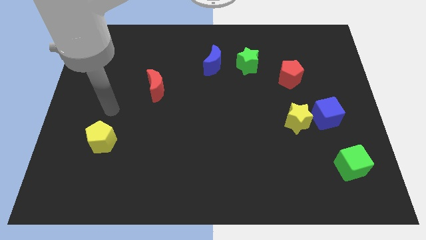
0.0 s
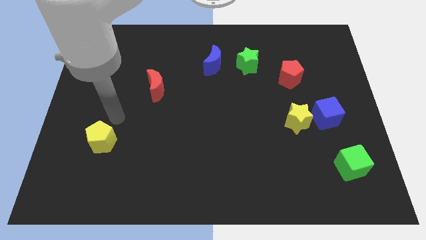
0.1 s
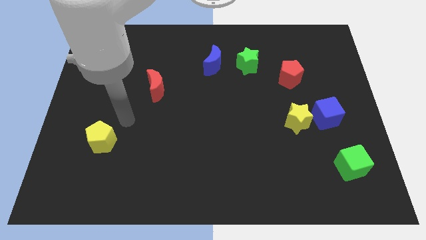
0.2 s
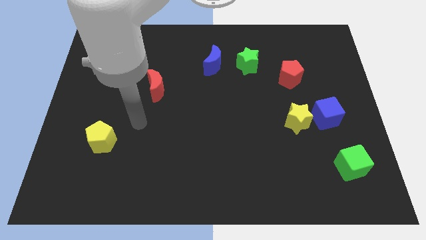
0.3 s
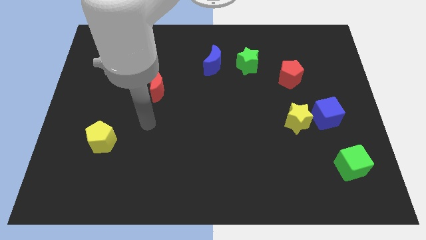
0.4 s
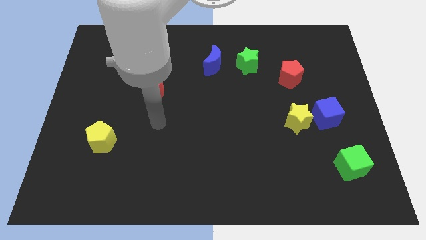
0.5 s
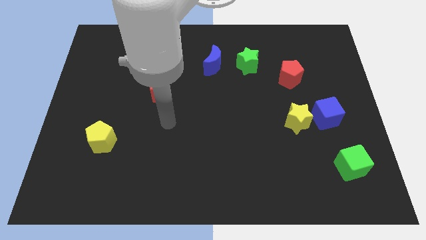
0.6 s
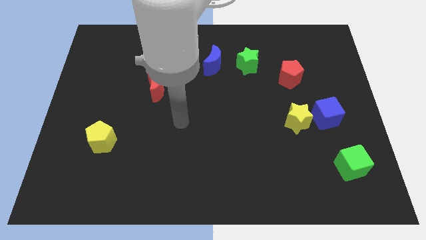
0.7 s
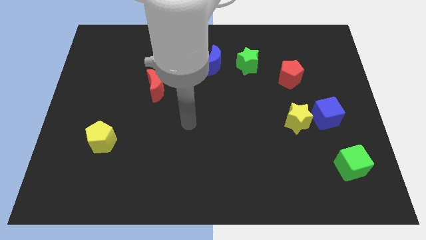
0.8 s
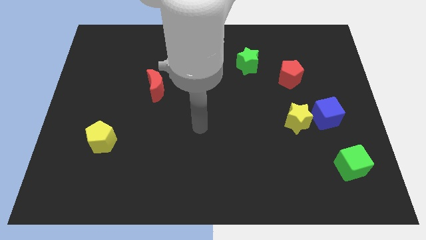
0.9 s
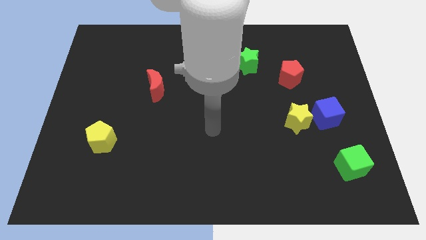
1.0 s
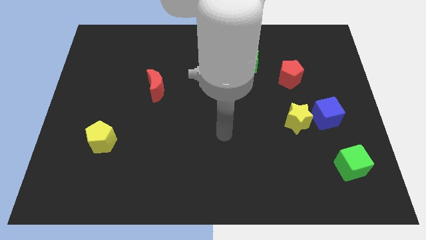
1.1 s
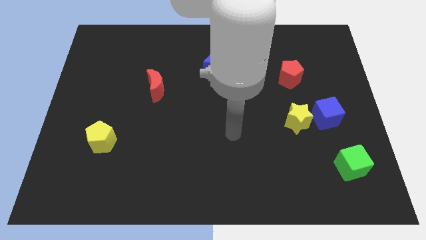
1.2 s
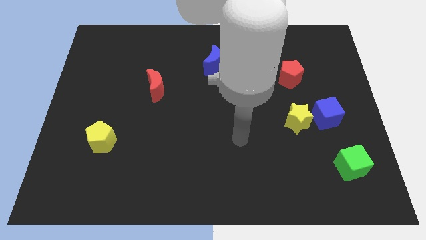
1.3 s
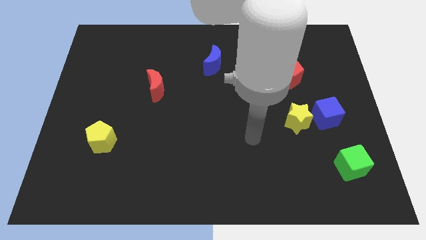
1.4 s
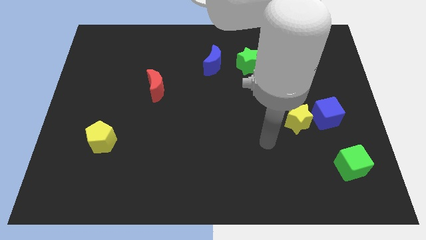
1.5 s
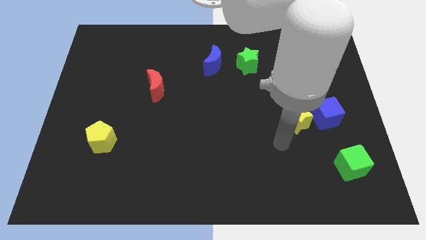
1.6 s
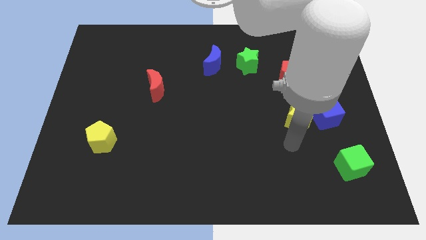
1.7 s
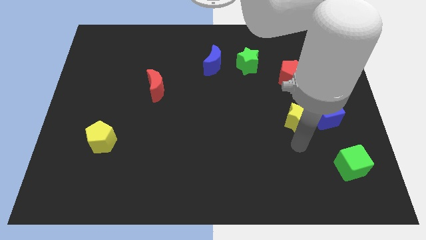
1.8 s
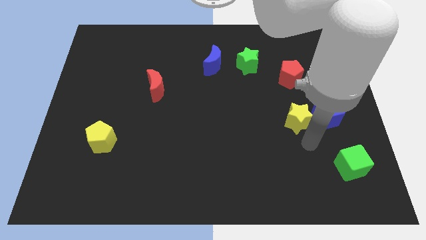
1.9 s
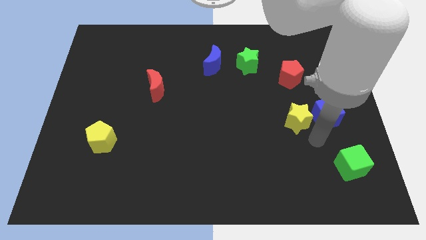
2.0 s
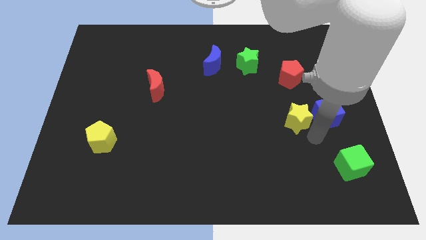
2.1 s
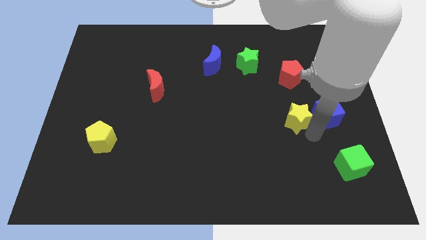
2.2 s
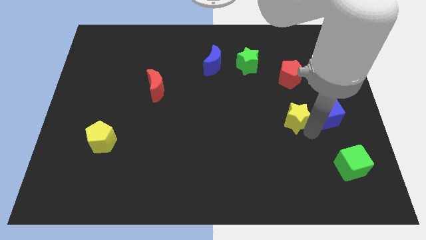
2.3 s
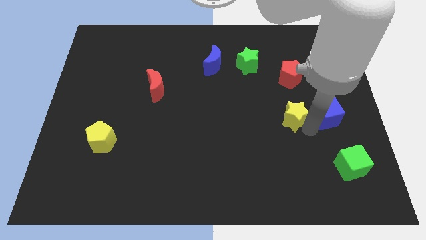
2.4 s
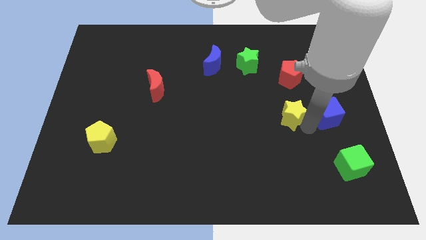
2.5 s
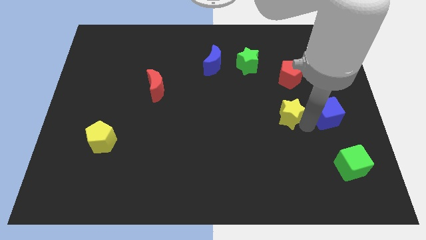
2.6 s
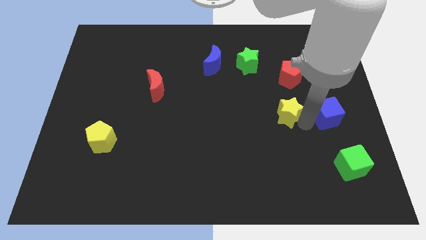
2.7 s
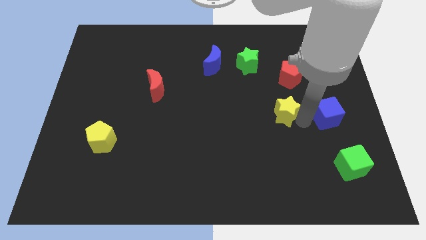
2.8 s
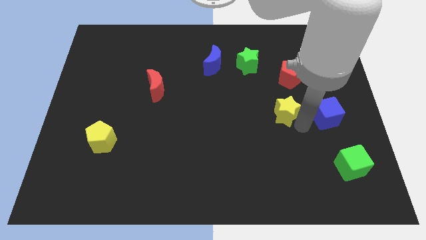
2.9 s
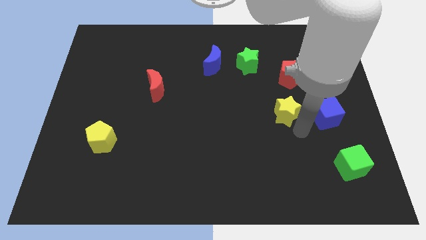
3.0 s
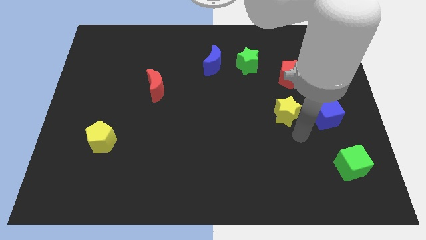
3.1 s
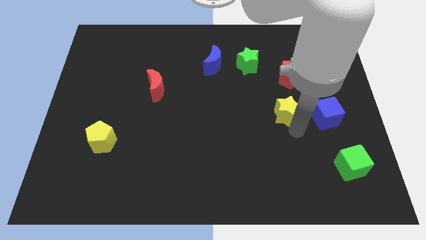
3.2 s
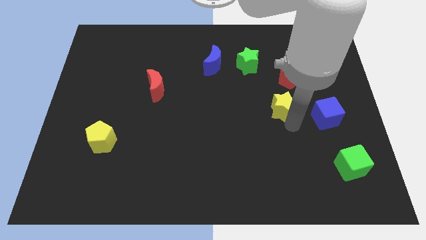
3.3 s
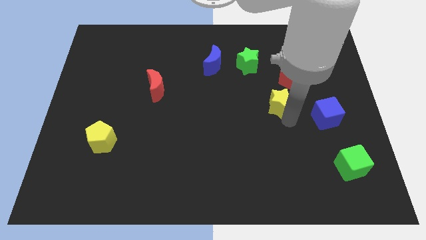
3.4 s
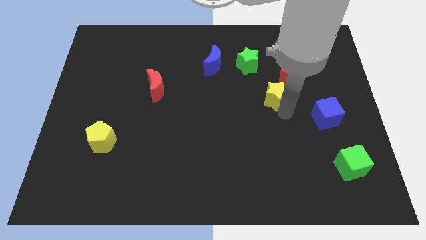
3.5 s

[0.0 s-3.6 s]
move the yellow star a little bit diagonally up and left

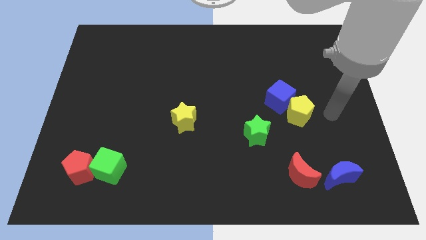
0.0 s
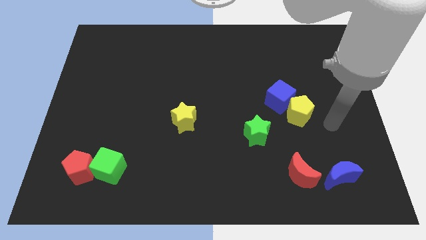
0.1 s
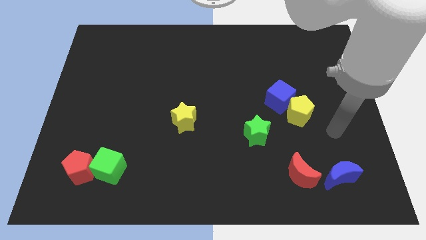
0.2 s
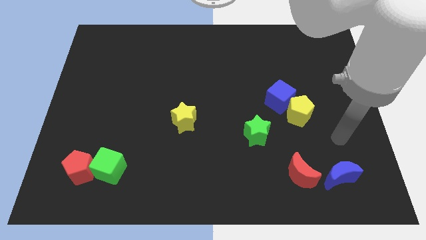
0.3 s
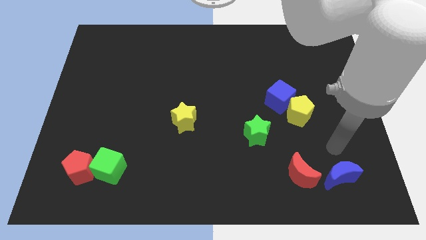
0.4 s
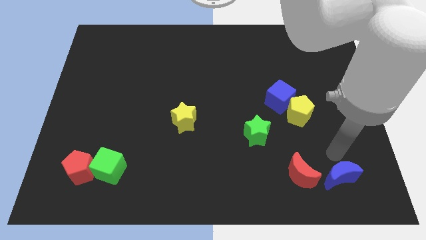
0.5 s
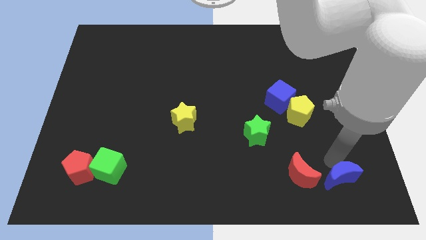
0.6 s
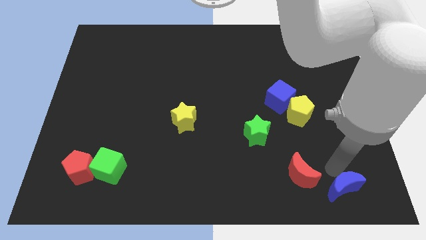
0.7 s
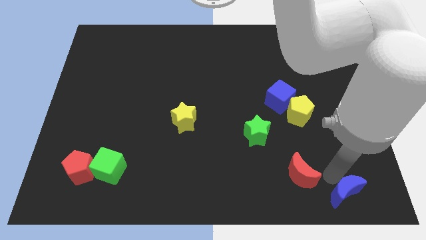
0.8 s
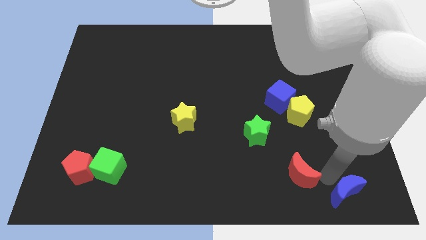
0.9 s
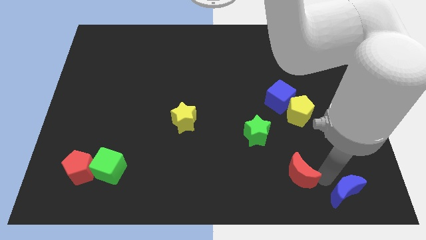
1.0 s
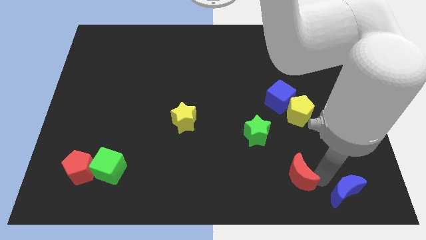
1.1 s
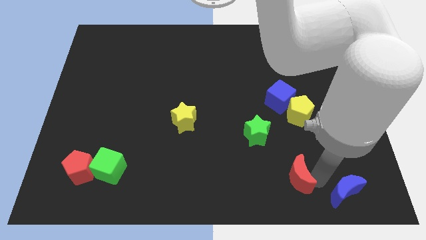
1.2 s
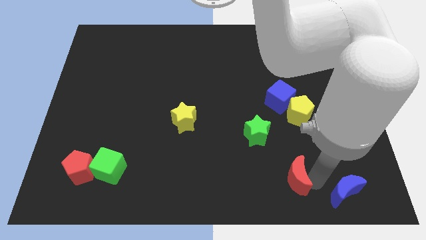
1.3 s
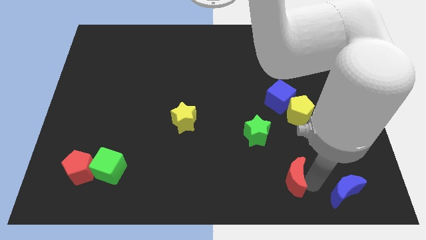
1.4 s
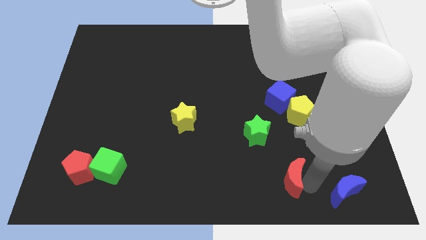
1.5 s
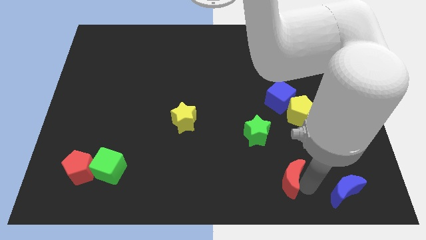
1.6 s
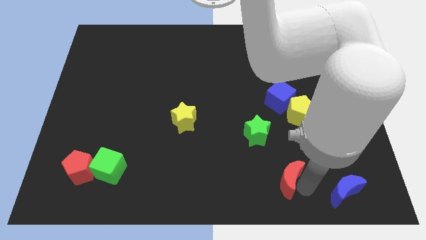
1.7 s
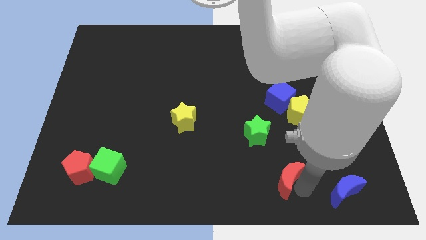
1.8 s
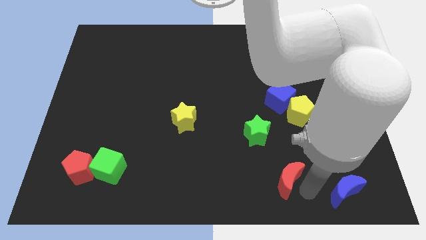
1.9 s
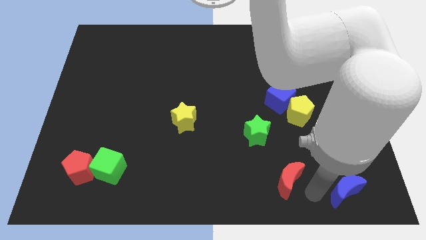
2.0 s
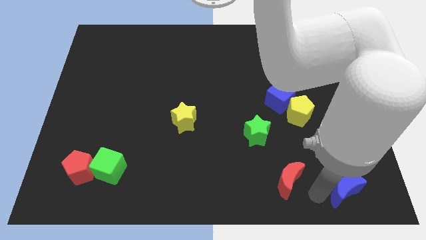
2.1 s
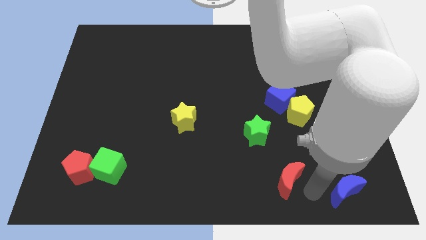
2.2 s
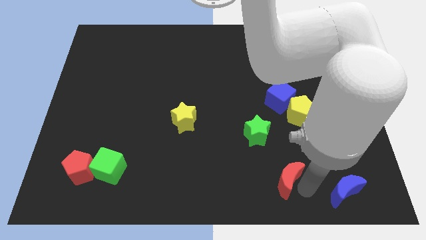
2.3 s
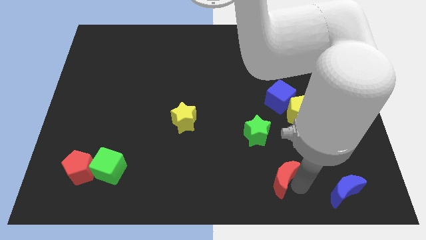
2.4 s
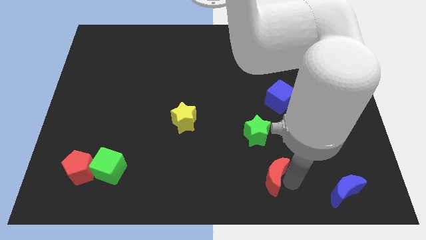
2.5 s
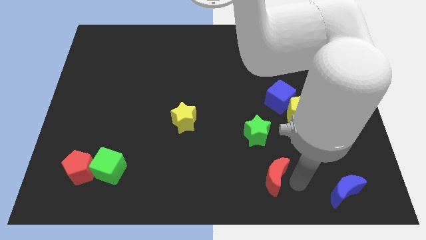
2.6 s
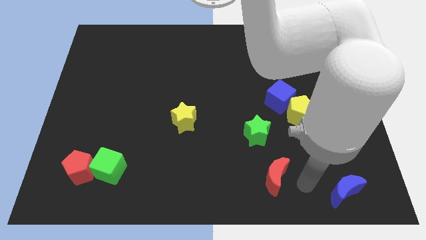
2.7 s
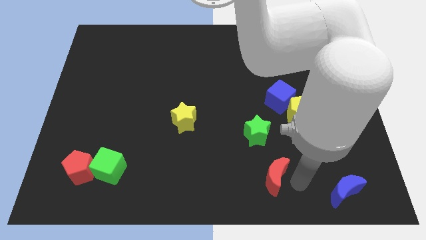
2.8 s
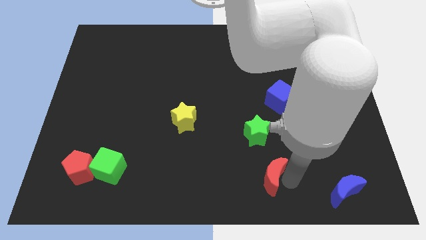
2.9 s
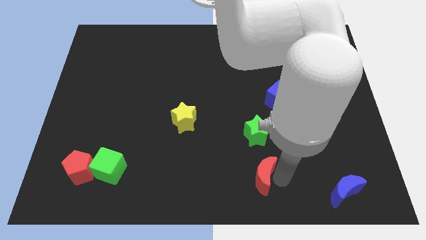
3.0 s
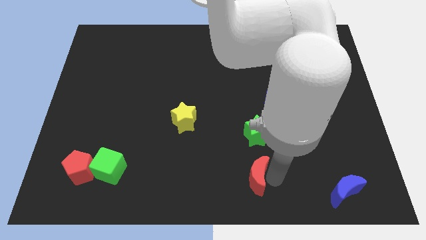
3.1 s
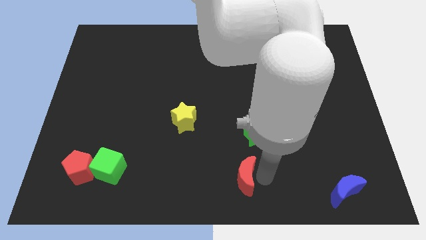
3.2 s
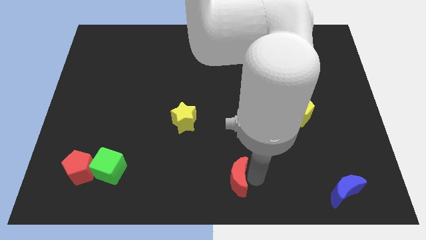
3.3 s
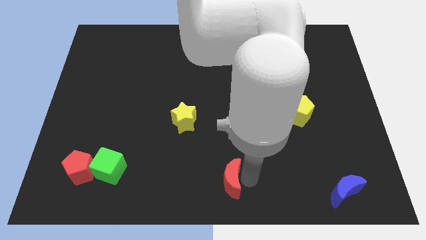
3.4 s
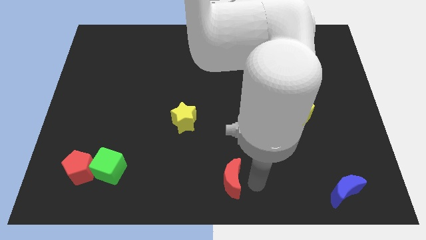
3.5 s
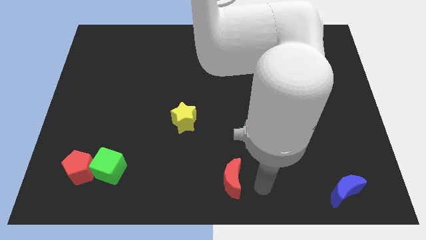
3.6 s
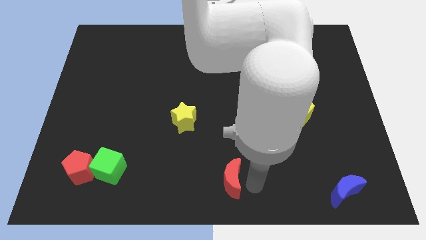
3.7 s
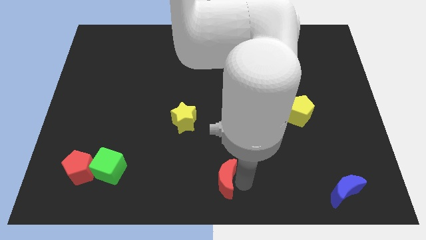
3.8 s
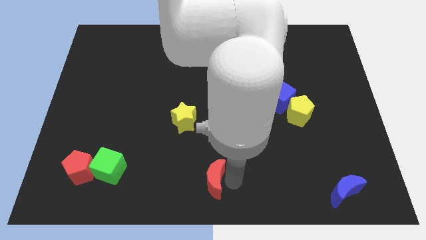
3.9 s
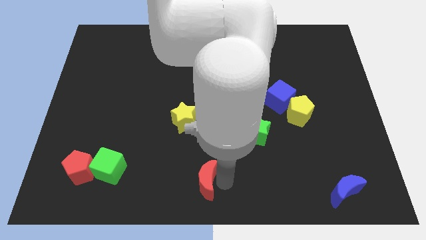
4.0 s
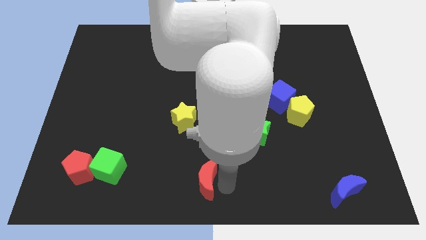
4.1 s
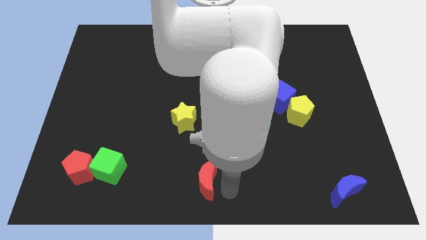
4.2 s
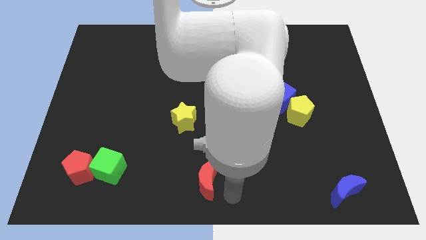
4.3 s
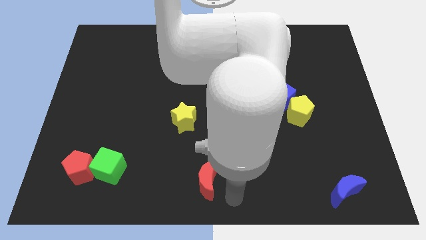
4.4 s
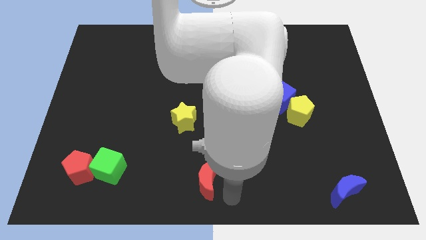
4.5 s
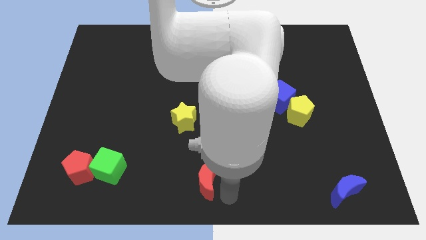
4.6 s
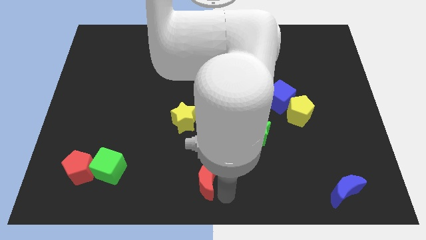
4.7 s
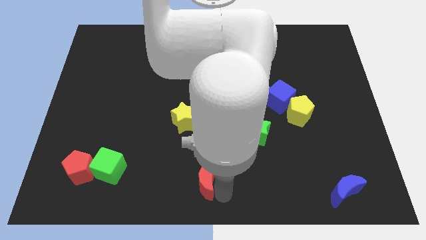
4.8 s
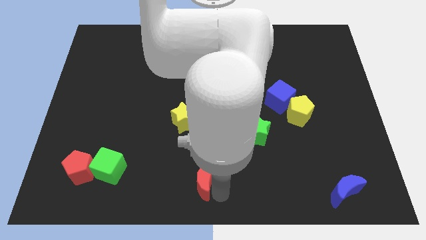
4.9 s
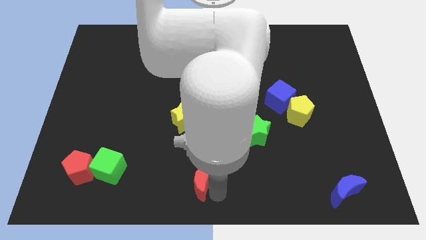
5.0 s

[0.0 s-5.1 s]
push the red moon left
